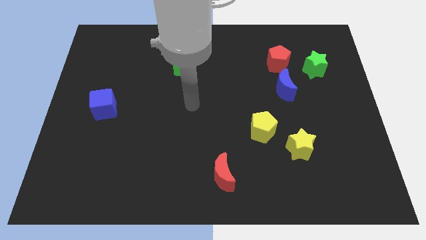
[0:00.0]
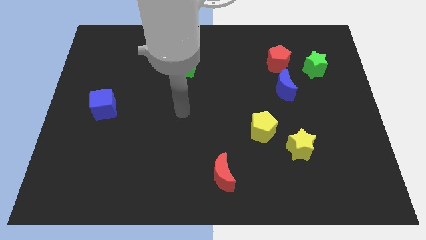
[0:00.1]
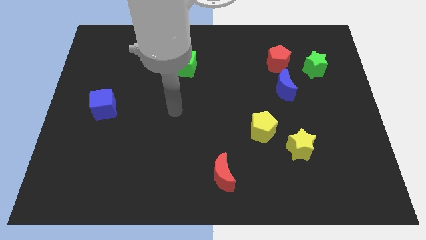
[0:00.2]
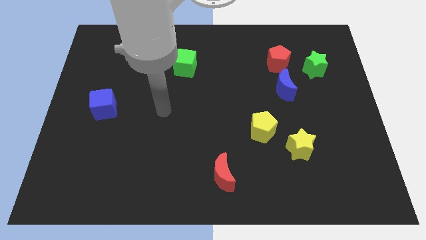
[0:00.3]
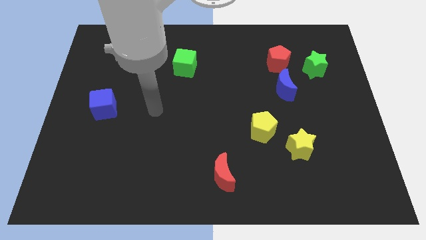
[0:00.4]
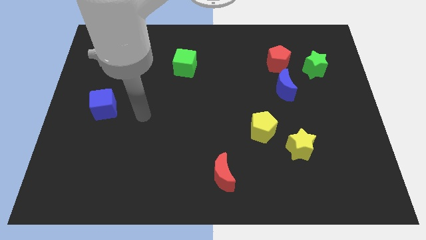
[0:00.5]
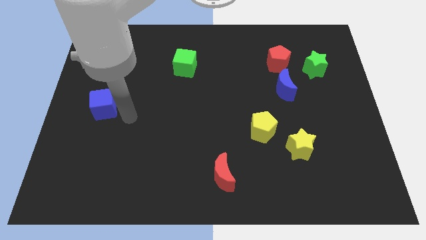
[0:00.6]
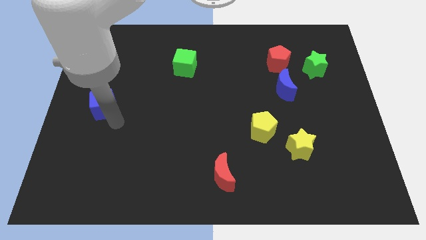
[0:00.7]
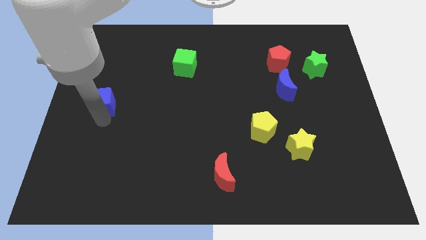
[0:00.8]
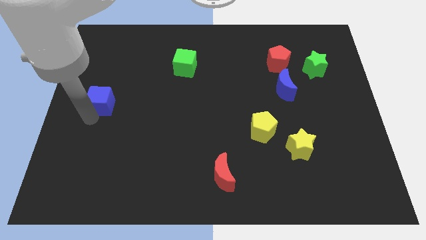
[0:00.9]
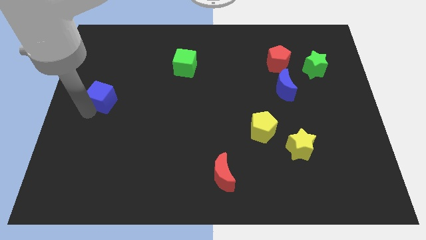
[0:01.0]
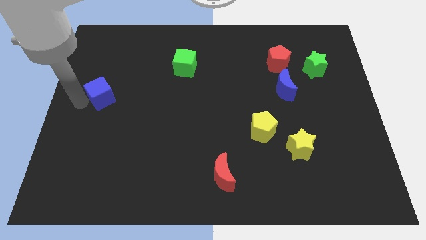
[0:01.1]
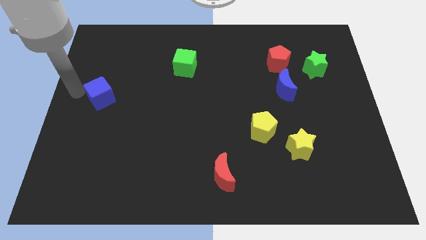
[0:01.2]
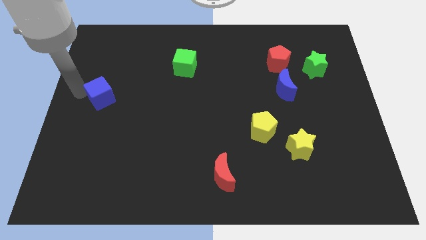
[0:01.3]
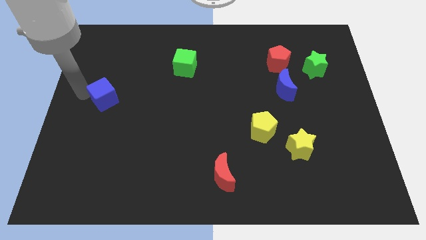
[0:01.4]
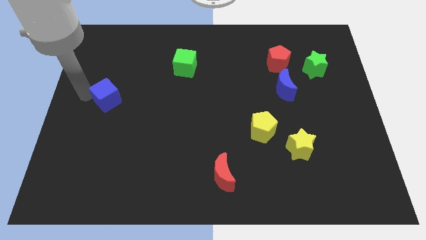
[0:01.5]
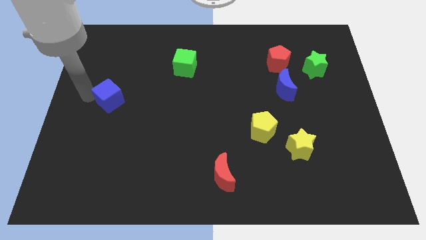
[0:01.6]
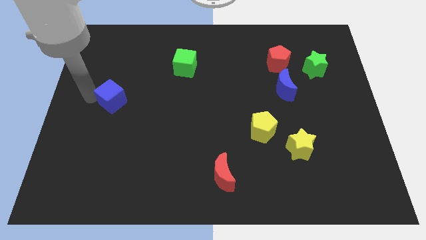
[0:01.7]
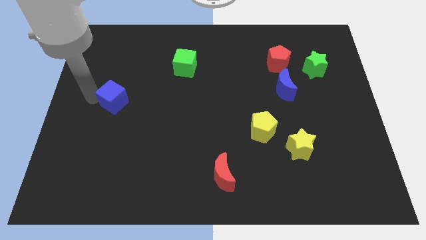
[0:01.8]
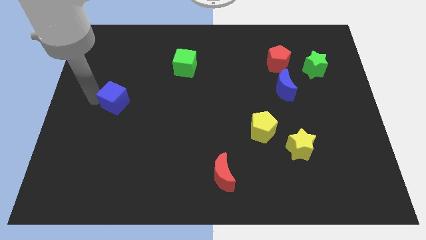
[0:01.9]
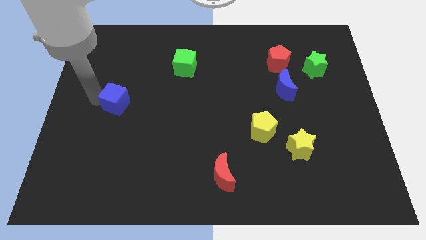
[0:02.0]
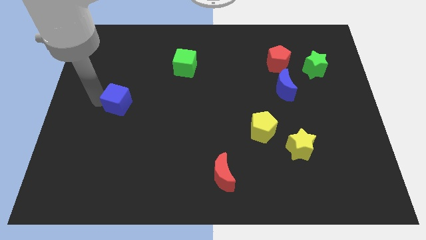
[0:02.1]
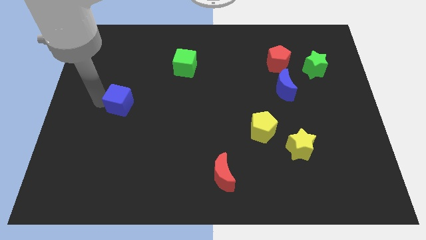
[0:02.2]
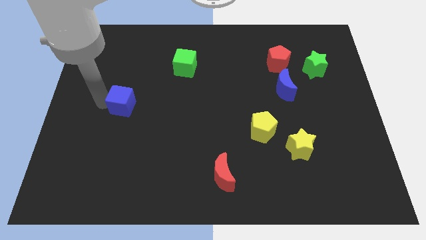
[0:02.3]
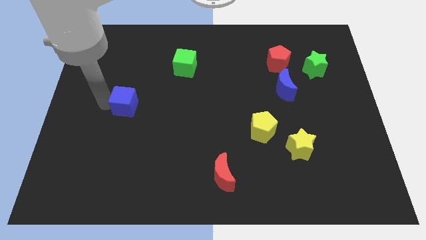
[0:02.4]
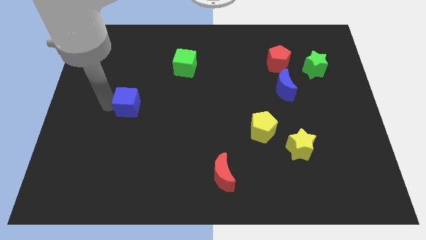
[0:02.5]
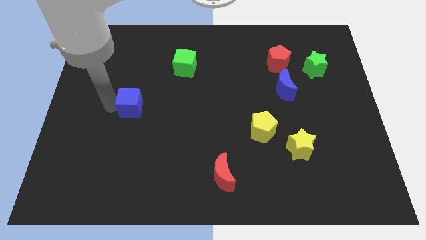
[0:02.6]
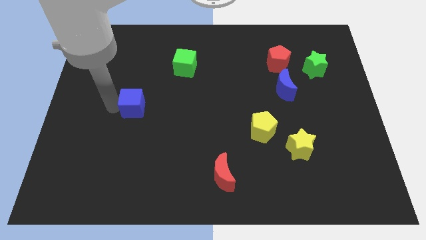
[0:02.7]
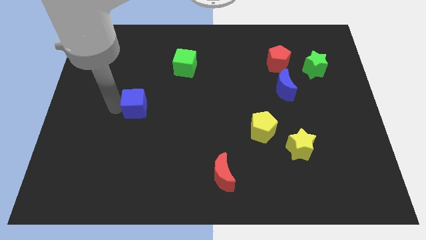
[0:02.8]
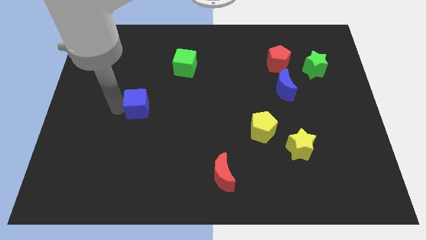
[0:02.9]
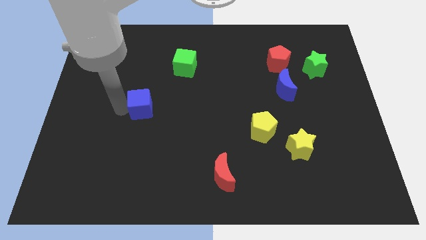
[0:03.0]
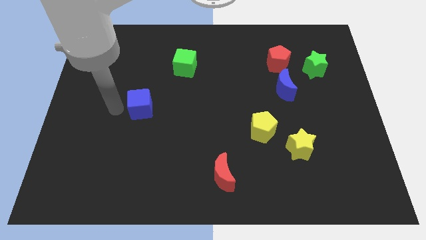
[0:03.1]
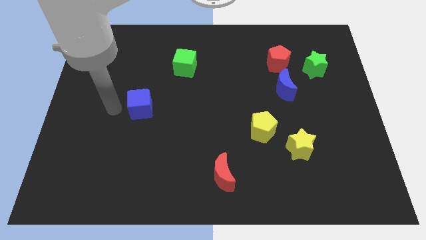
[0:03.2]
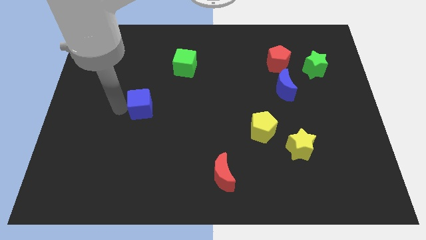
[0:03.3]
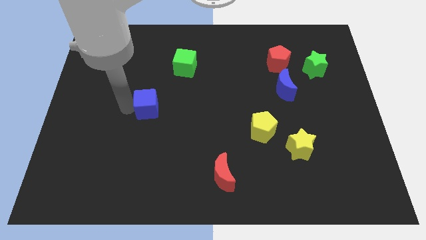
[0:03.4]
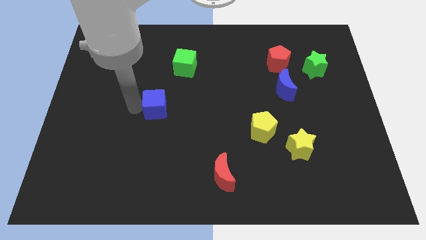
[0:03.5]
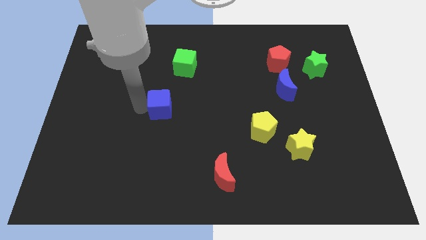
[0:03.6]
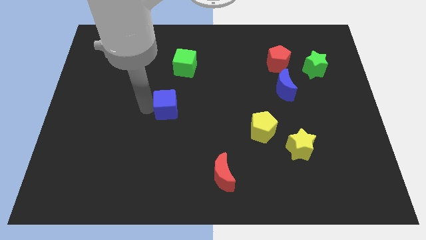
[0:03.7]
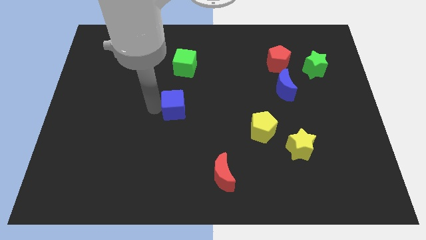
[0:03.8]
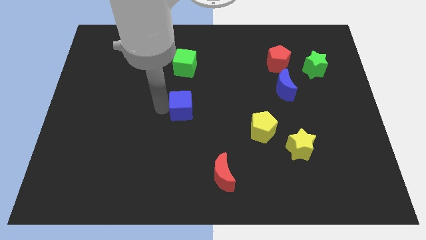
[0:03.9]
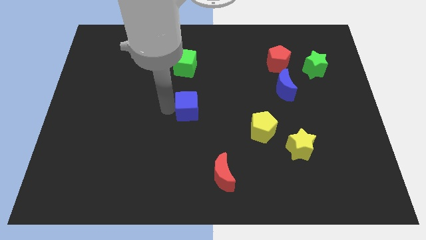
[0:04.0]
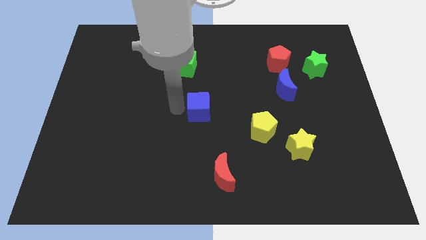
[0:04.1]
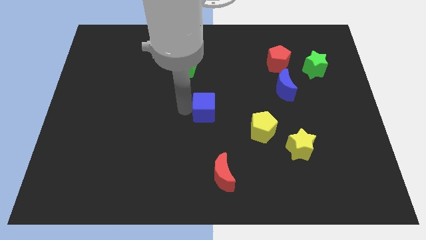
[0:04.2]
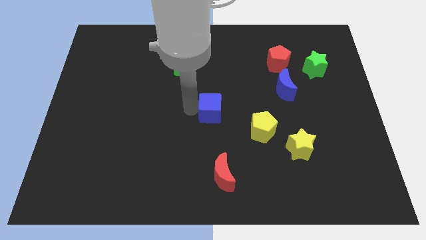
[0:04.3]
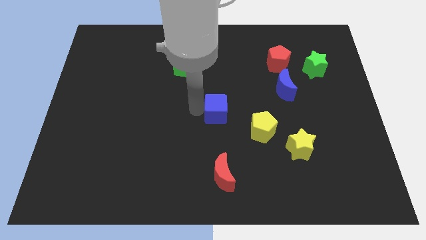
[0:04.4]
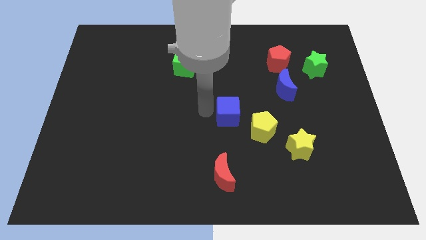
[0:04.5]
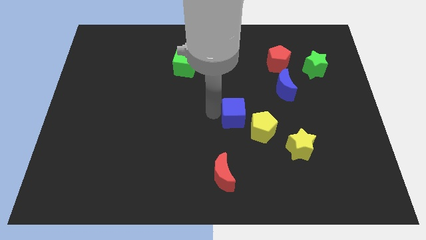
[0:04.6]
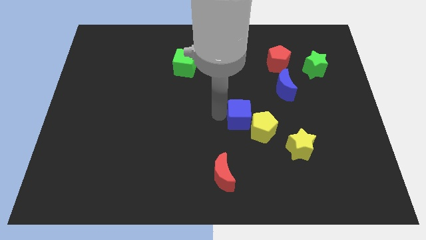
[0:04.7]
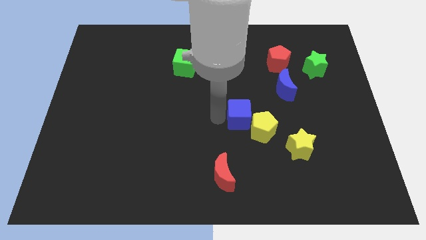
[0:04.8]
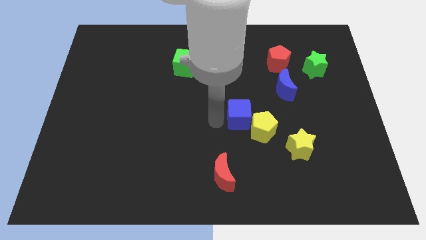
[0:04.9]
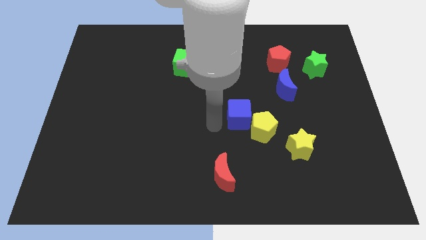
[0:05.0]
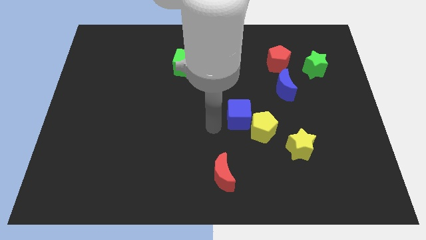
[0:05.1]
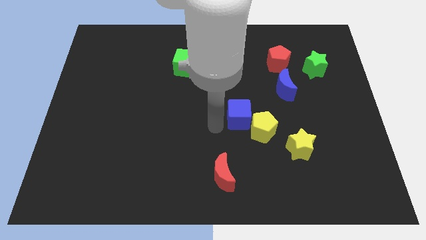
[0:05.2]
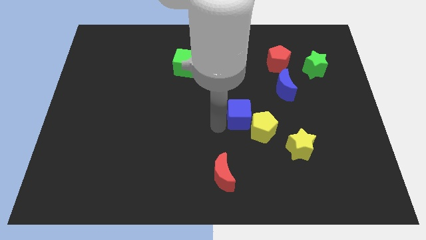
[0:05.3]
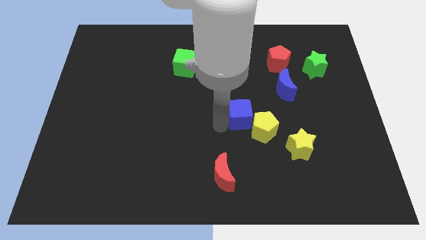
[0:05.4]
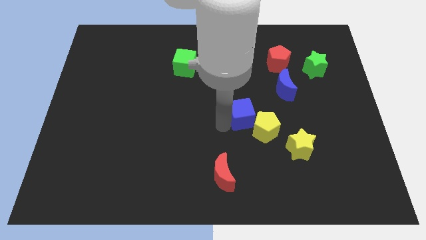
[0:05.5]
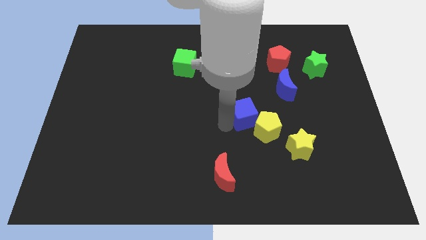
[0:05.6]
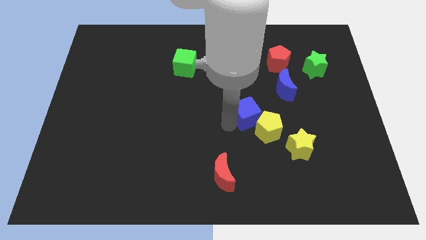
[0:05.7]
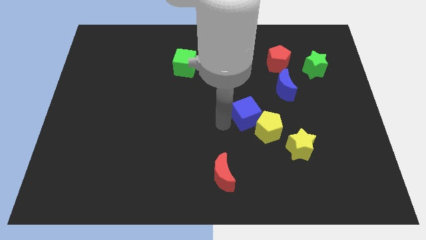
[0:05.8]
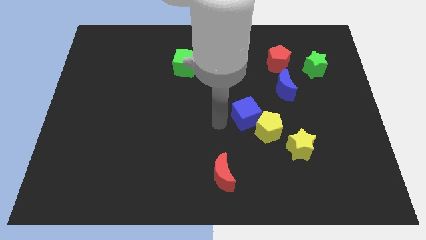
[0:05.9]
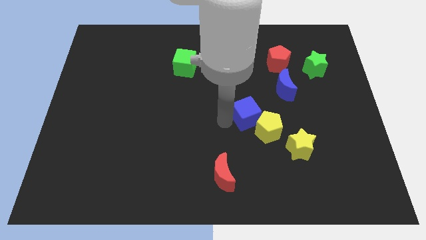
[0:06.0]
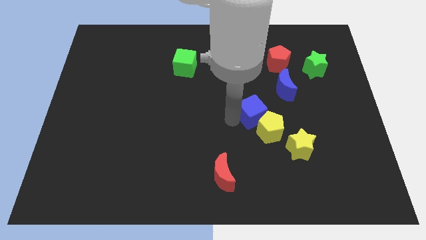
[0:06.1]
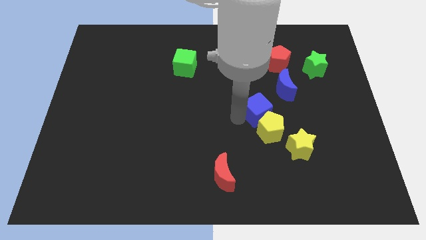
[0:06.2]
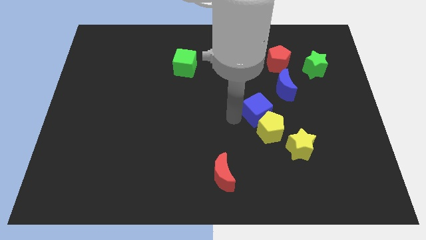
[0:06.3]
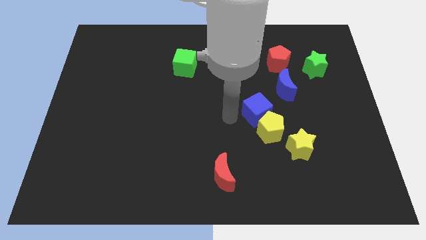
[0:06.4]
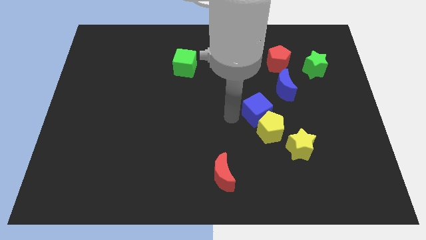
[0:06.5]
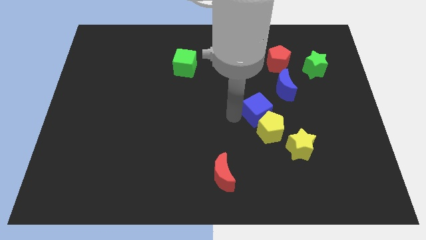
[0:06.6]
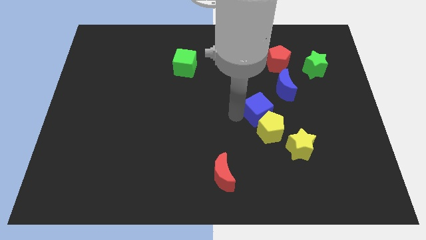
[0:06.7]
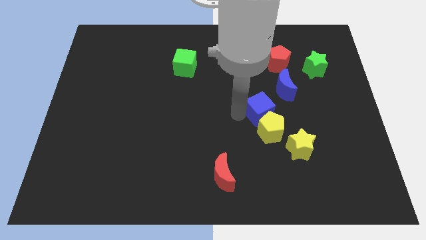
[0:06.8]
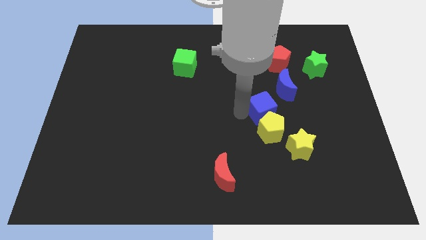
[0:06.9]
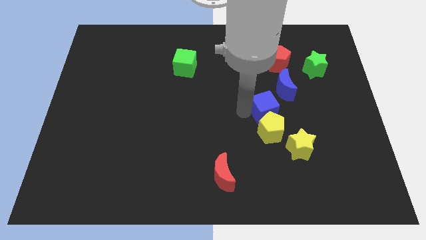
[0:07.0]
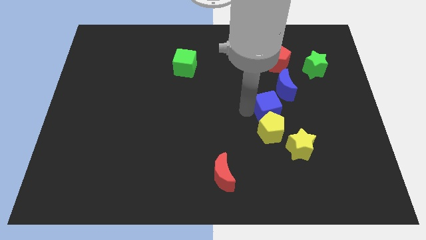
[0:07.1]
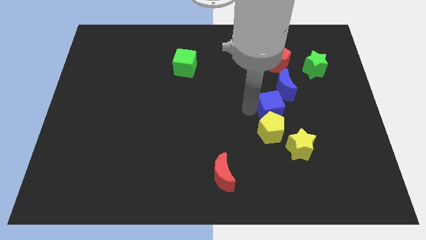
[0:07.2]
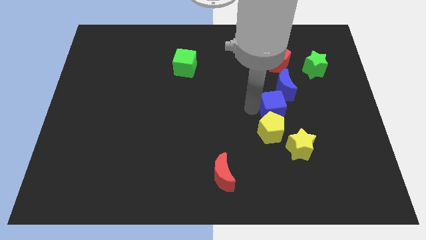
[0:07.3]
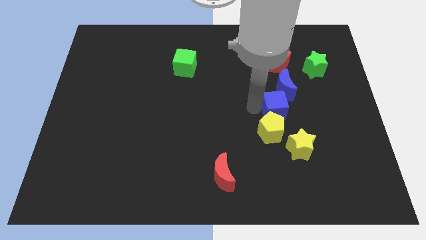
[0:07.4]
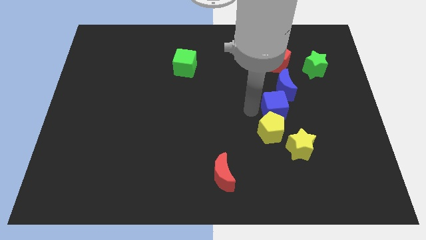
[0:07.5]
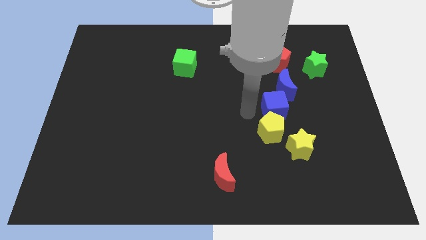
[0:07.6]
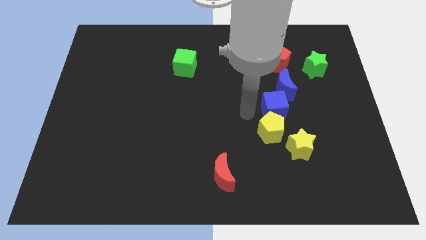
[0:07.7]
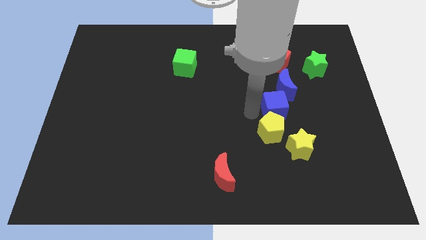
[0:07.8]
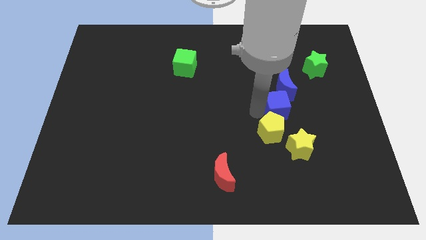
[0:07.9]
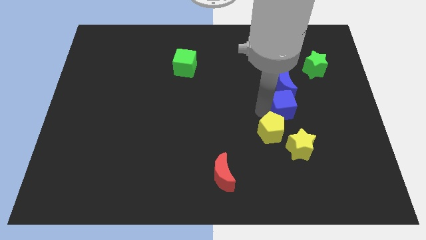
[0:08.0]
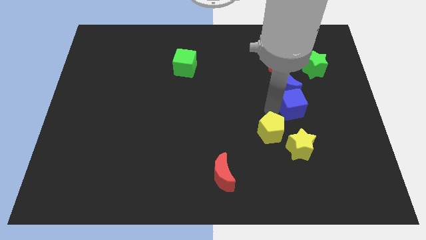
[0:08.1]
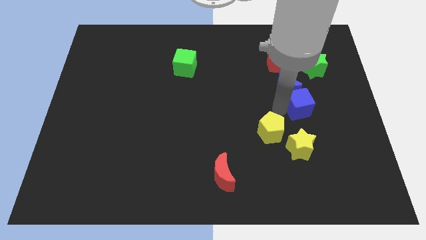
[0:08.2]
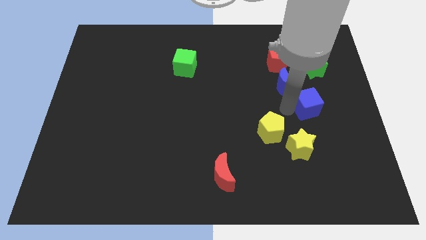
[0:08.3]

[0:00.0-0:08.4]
slide the blue cube to the bottom of the green star
